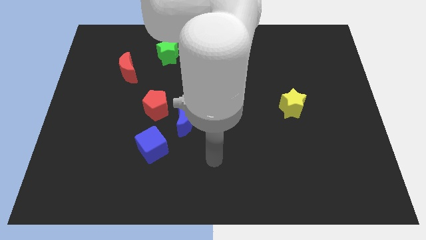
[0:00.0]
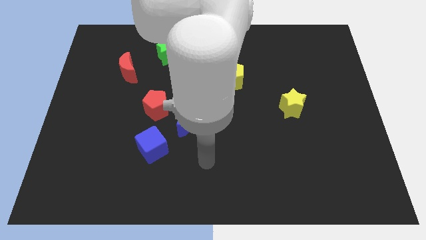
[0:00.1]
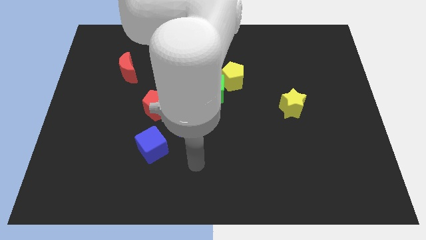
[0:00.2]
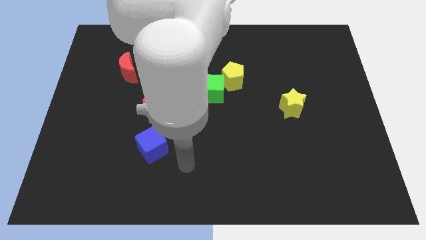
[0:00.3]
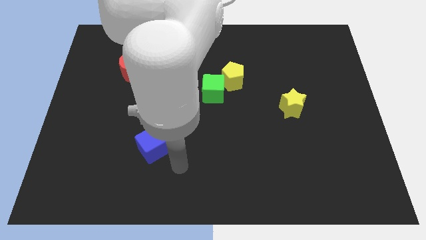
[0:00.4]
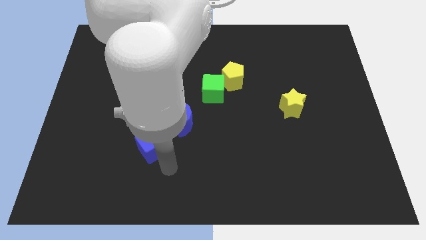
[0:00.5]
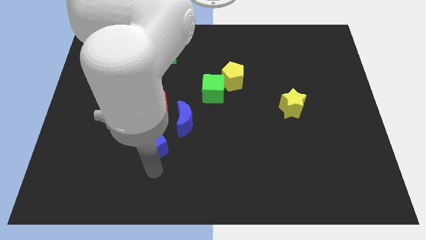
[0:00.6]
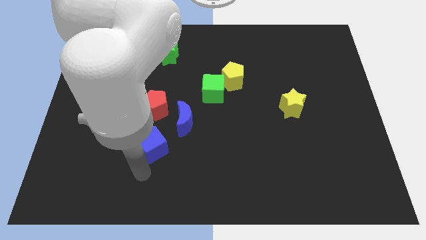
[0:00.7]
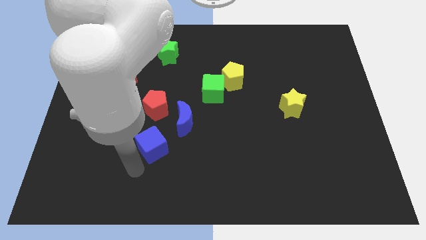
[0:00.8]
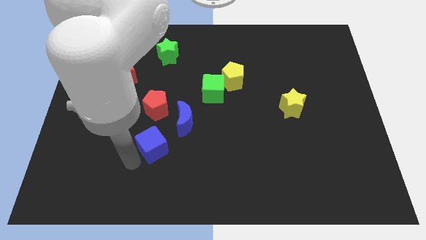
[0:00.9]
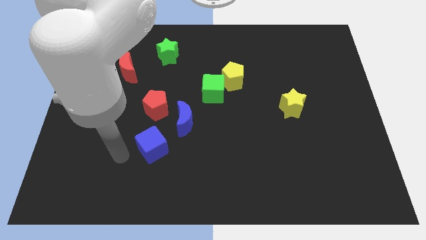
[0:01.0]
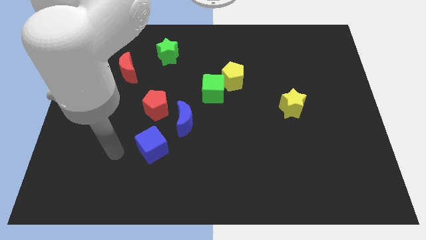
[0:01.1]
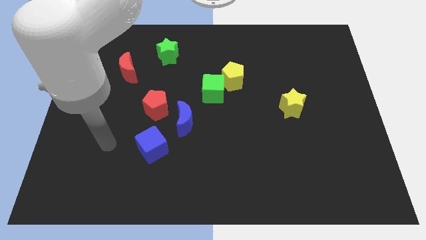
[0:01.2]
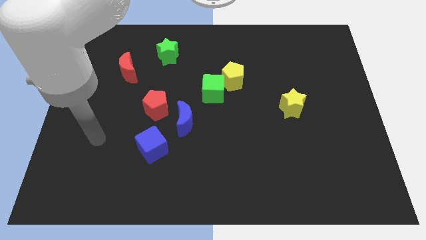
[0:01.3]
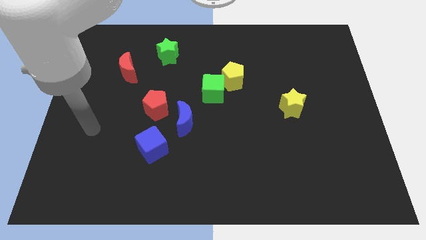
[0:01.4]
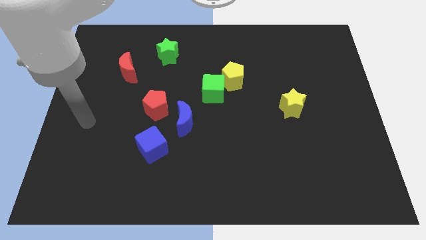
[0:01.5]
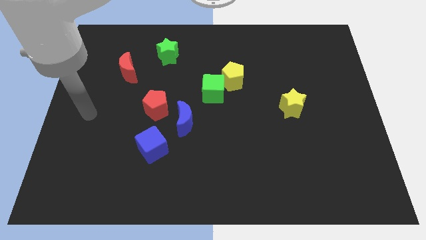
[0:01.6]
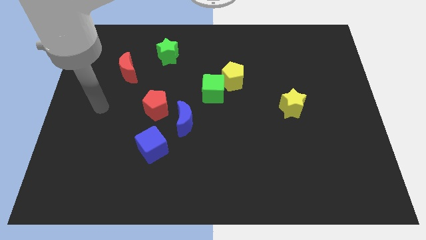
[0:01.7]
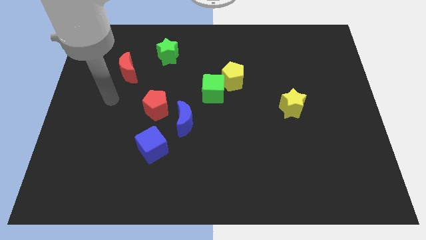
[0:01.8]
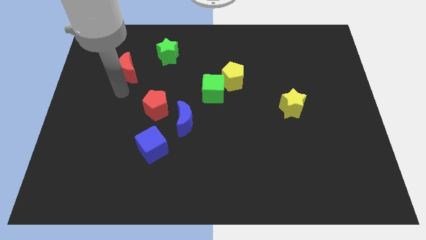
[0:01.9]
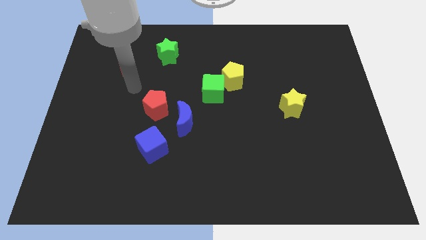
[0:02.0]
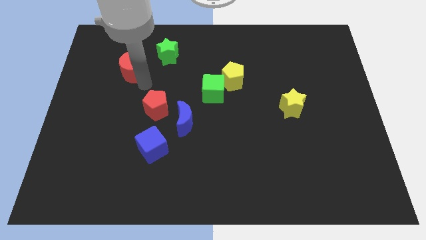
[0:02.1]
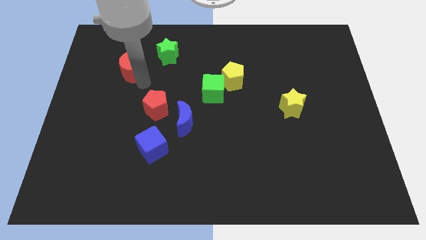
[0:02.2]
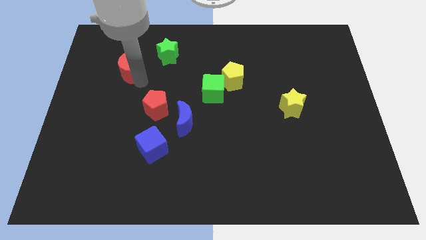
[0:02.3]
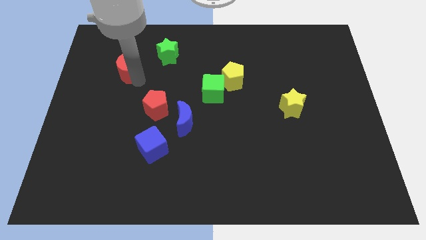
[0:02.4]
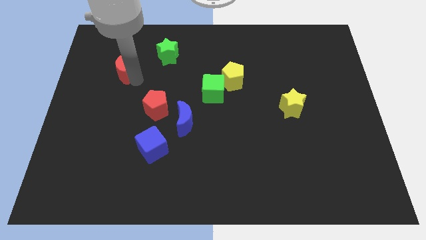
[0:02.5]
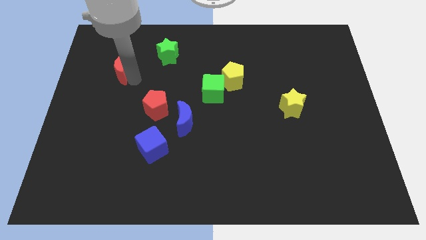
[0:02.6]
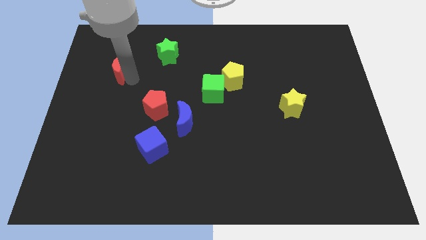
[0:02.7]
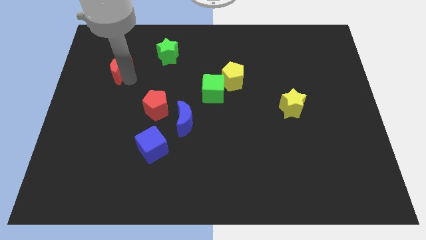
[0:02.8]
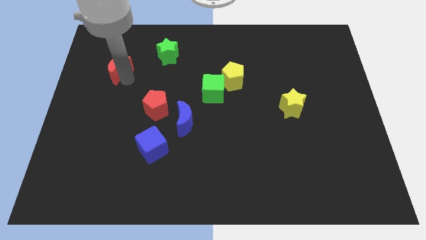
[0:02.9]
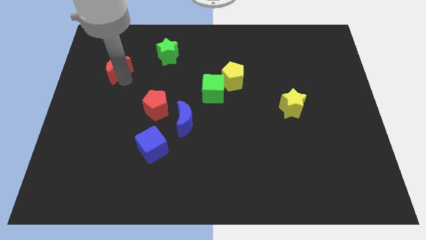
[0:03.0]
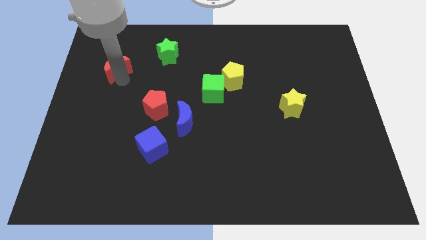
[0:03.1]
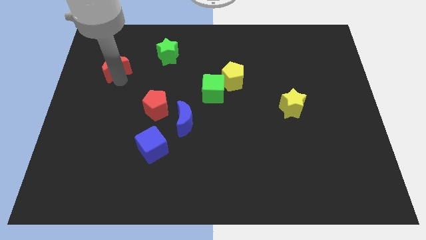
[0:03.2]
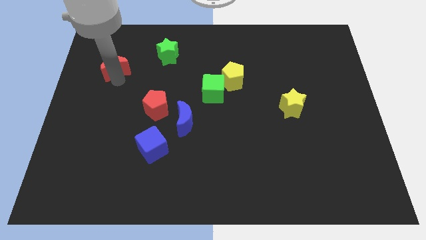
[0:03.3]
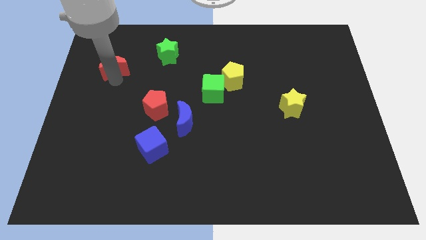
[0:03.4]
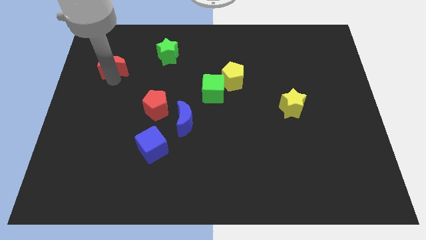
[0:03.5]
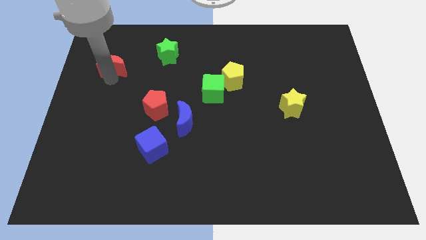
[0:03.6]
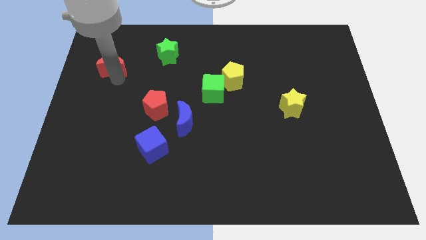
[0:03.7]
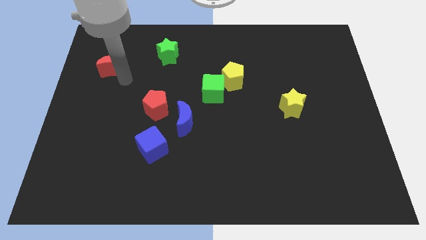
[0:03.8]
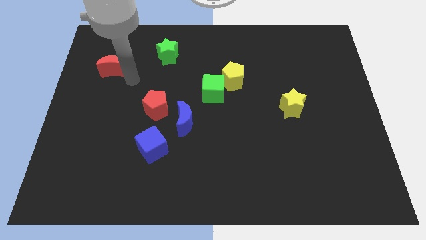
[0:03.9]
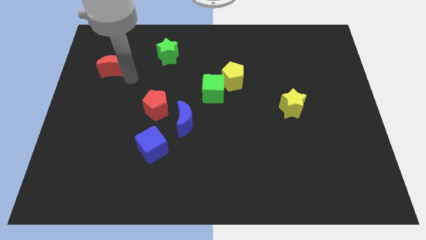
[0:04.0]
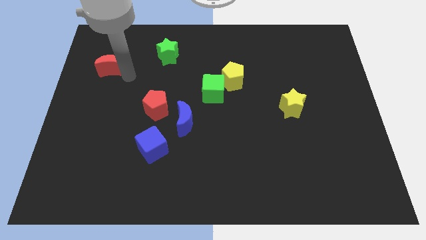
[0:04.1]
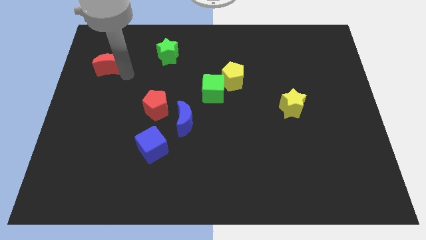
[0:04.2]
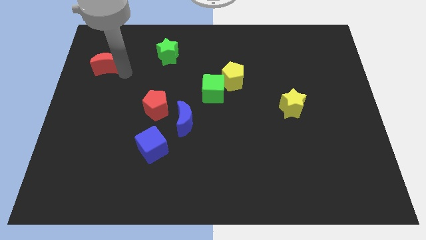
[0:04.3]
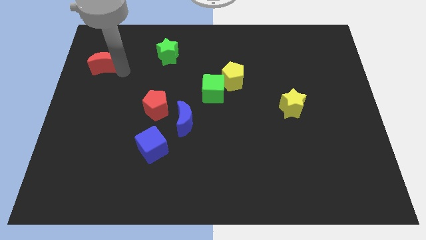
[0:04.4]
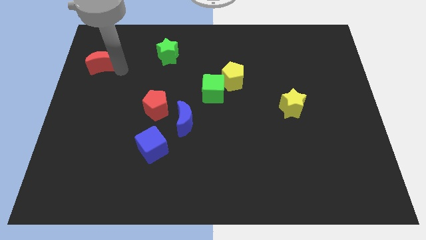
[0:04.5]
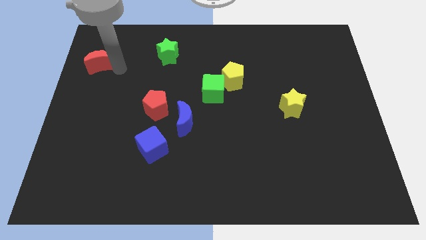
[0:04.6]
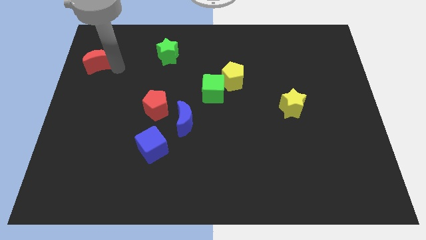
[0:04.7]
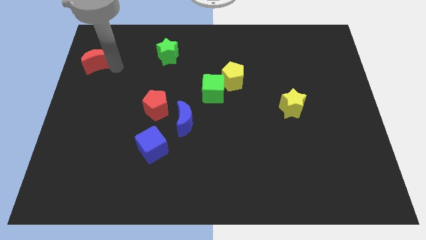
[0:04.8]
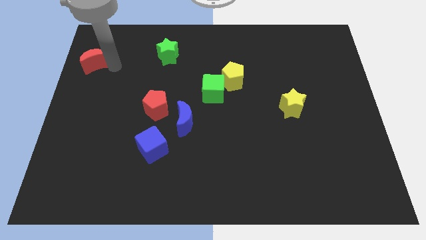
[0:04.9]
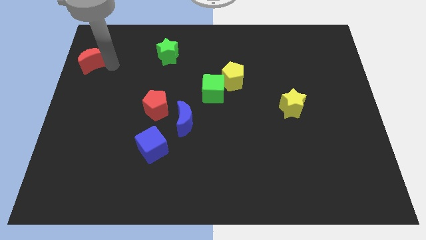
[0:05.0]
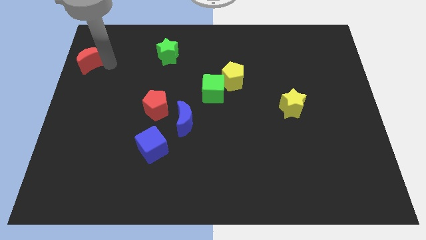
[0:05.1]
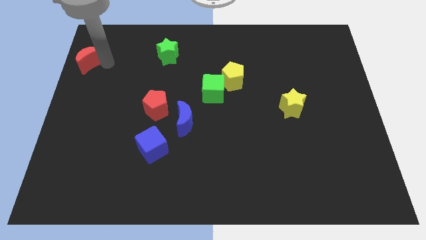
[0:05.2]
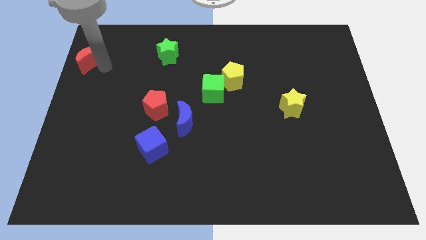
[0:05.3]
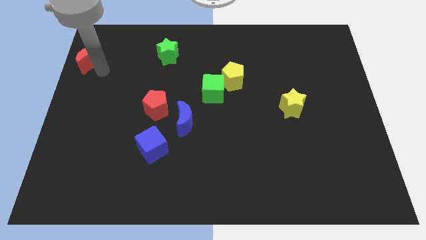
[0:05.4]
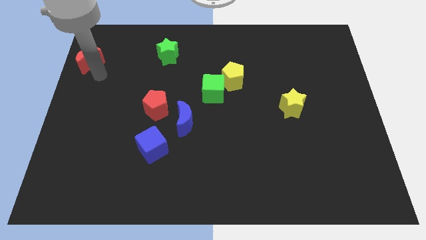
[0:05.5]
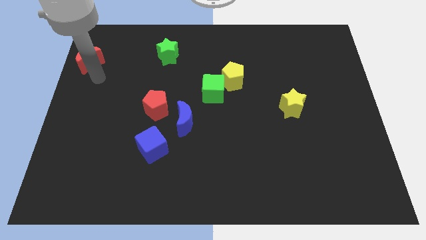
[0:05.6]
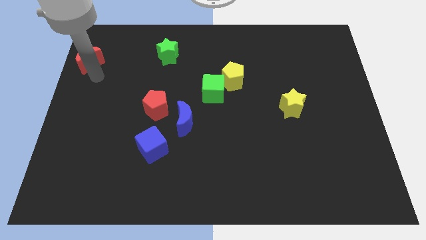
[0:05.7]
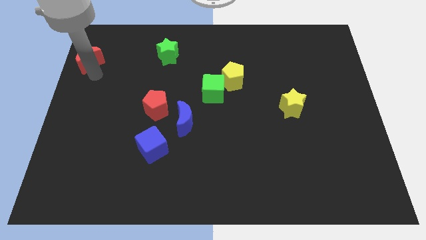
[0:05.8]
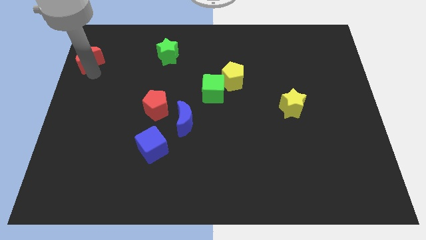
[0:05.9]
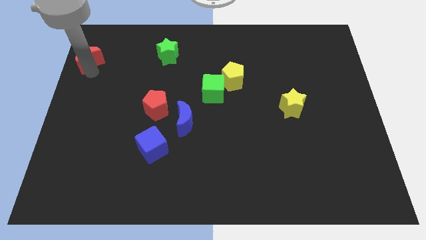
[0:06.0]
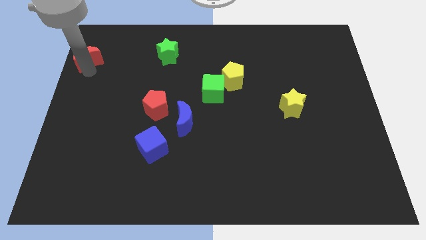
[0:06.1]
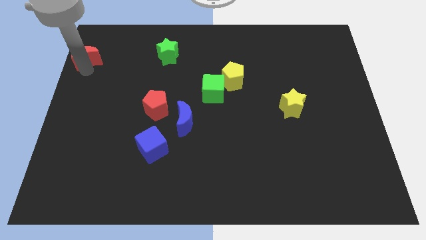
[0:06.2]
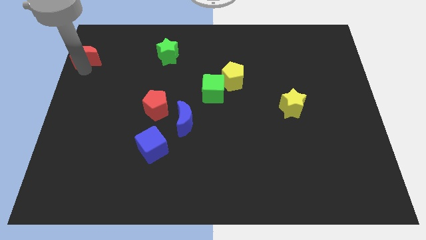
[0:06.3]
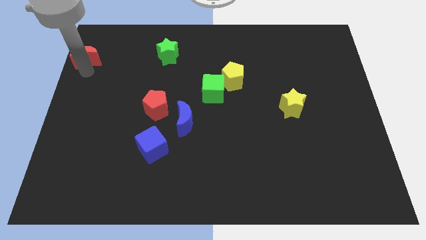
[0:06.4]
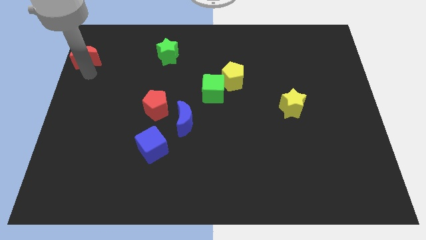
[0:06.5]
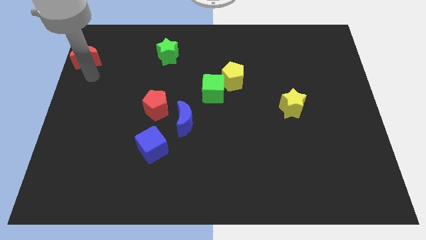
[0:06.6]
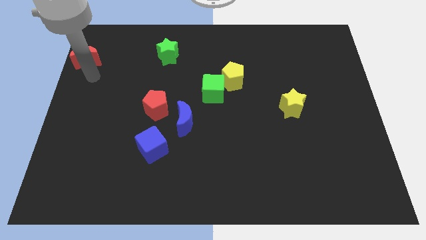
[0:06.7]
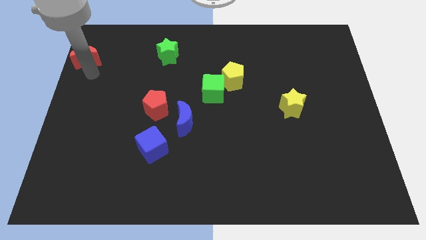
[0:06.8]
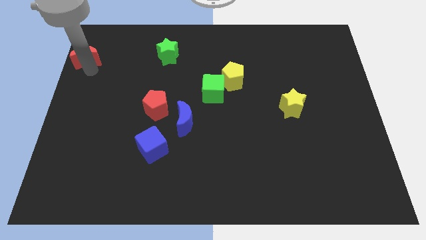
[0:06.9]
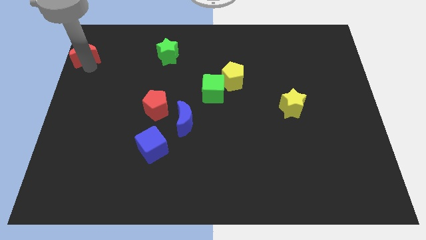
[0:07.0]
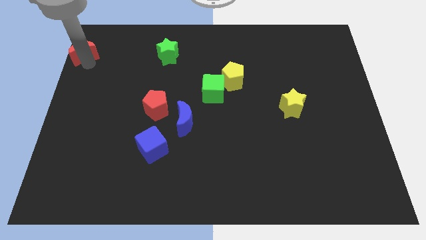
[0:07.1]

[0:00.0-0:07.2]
push the red moon to the top left
